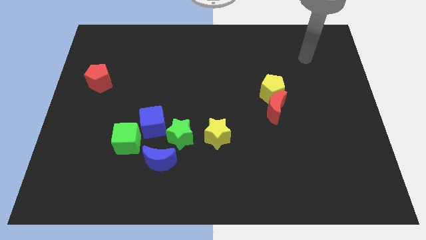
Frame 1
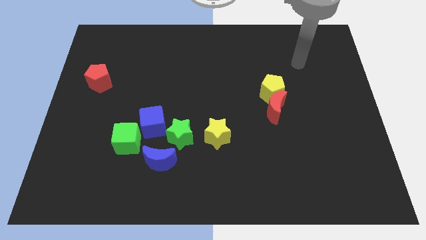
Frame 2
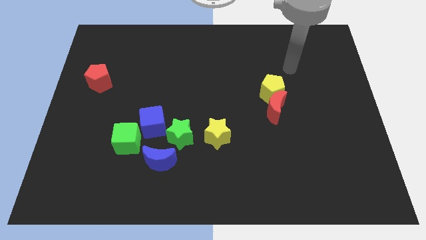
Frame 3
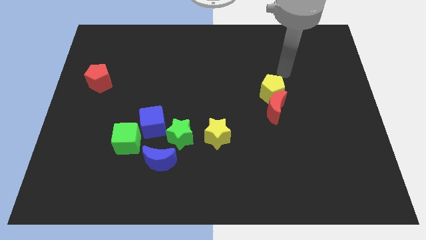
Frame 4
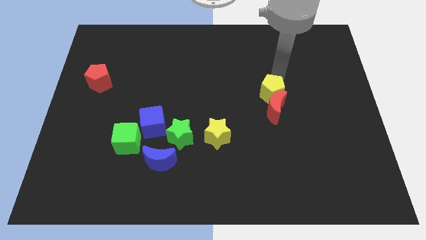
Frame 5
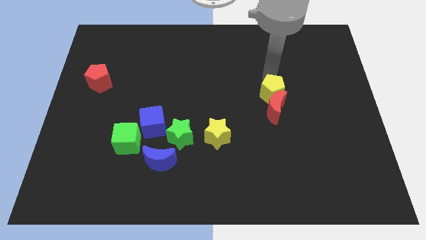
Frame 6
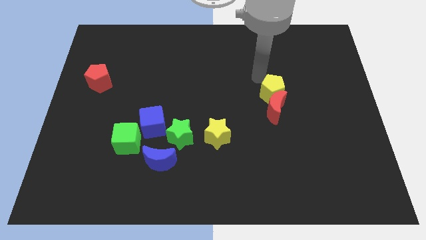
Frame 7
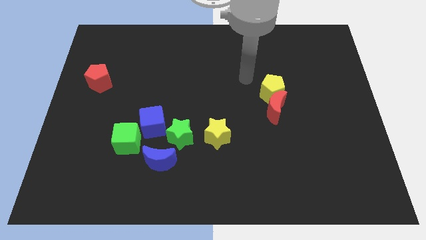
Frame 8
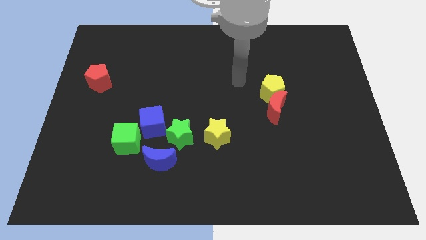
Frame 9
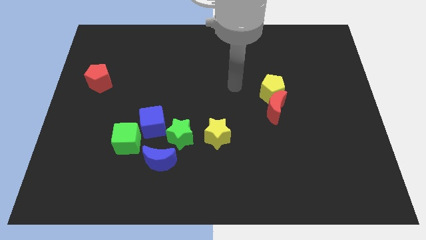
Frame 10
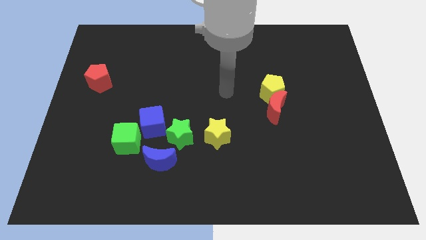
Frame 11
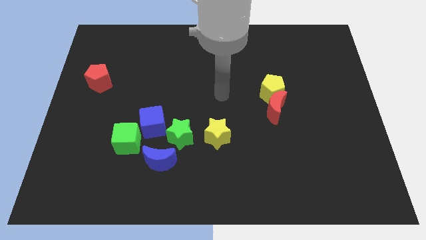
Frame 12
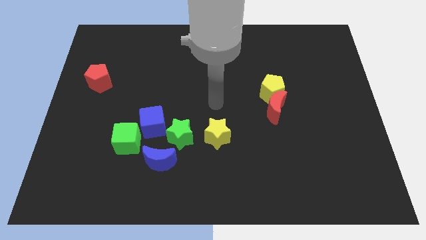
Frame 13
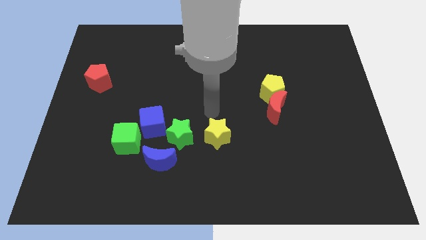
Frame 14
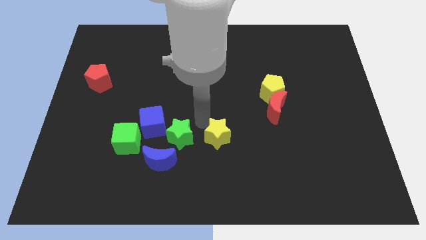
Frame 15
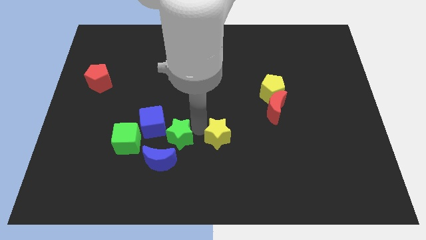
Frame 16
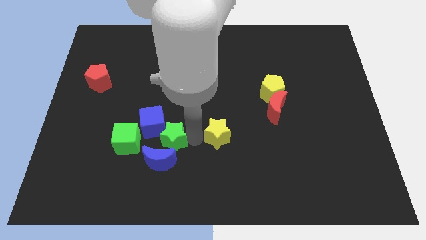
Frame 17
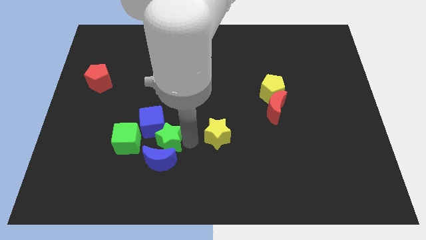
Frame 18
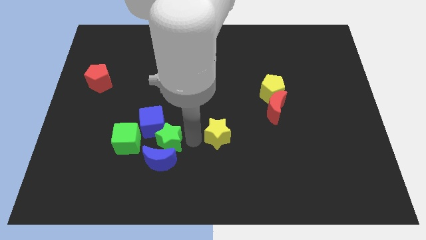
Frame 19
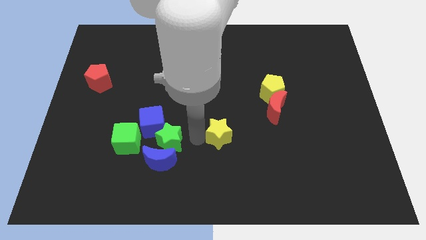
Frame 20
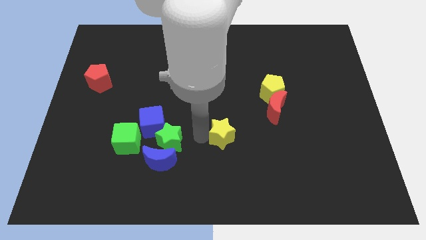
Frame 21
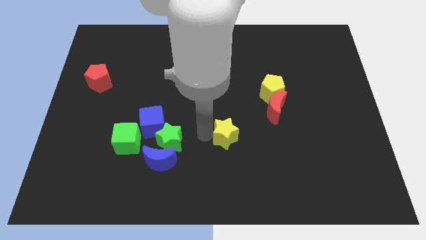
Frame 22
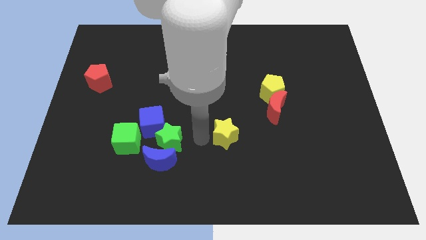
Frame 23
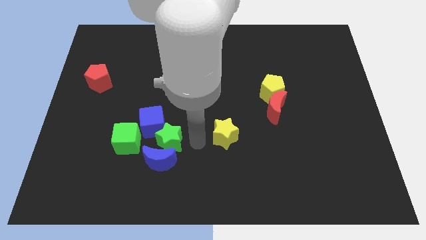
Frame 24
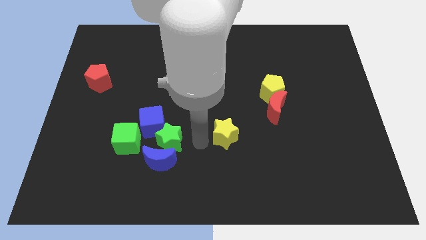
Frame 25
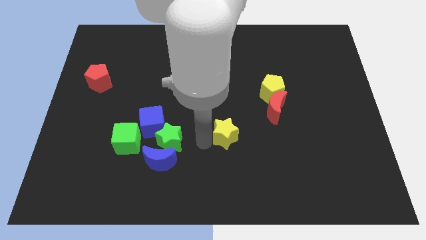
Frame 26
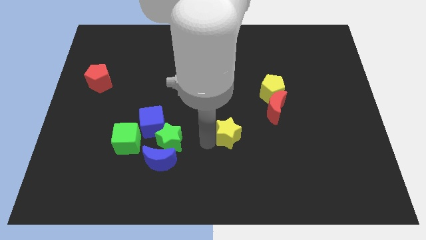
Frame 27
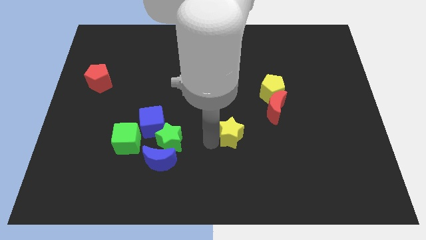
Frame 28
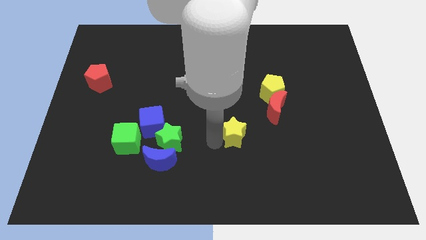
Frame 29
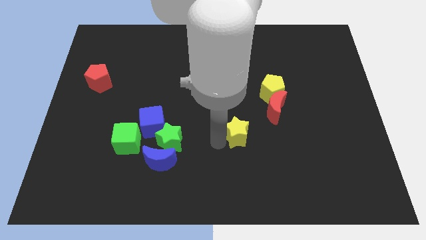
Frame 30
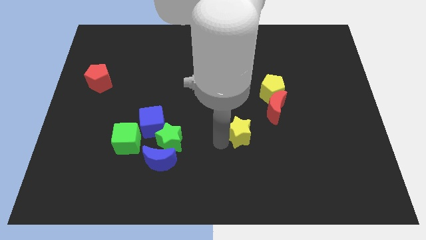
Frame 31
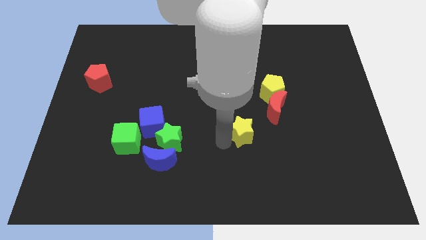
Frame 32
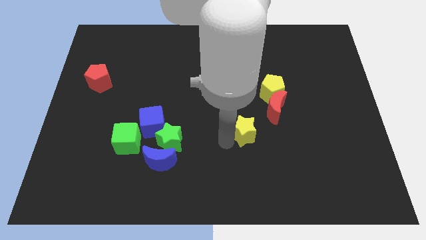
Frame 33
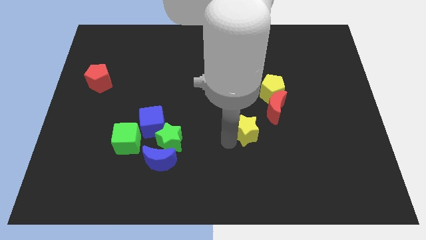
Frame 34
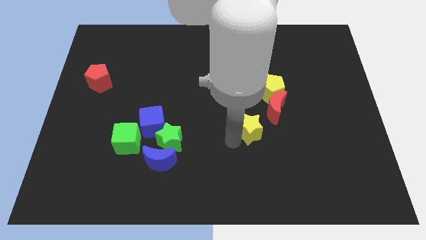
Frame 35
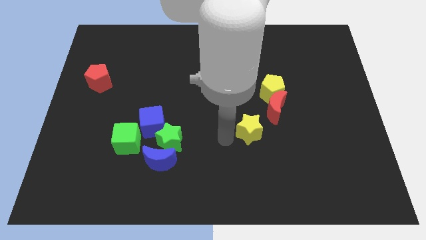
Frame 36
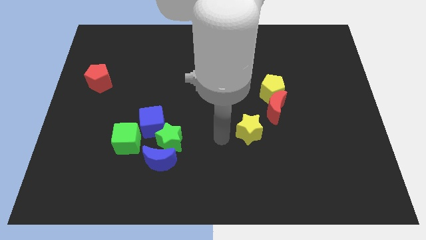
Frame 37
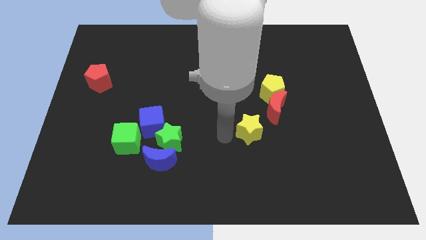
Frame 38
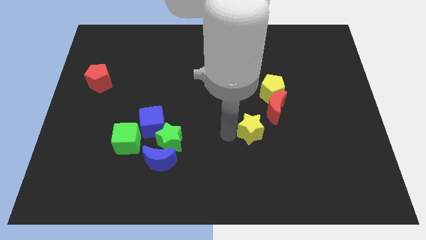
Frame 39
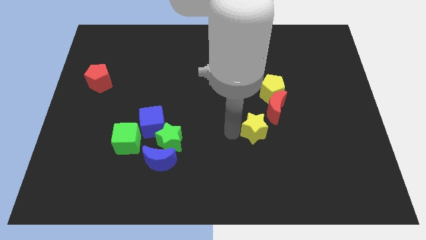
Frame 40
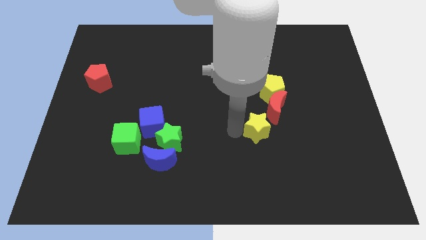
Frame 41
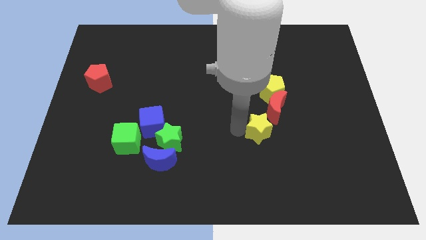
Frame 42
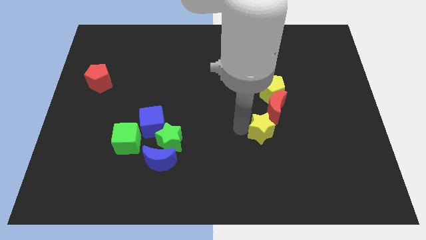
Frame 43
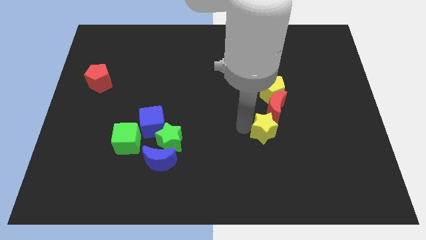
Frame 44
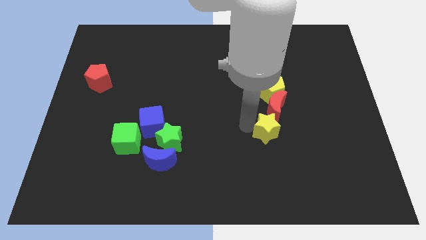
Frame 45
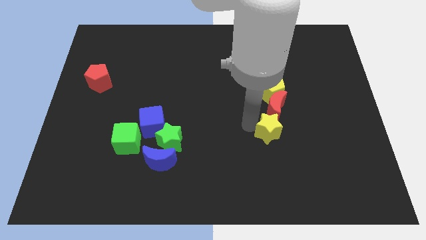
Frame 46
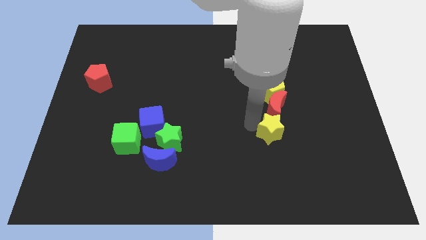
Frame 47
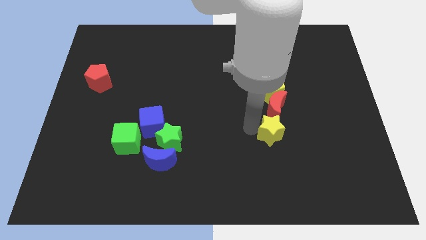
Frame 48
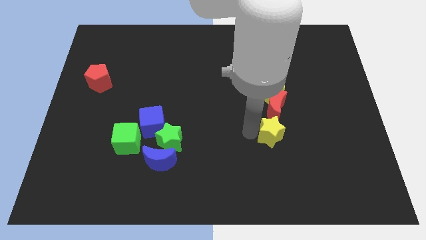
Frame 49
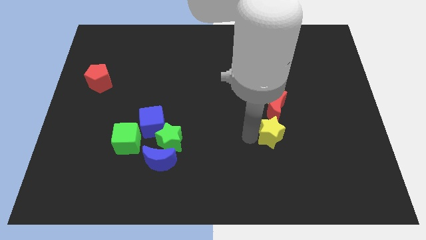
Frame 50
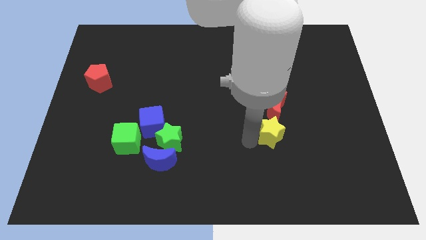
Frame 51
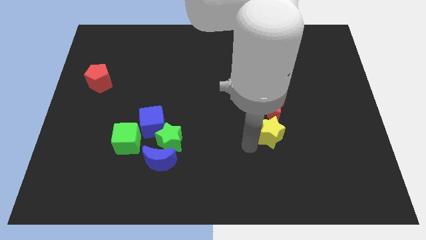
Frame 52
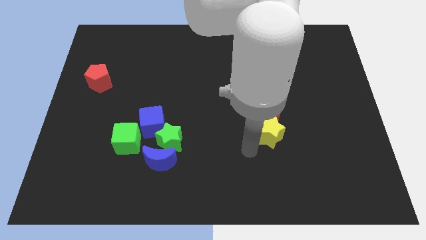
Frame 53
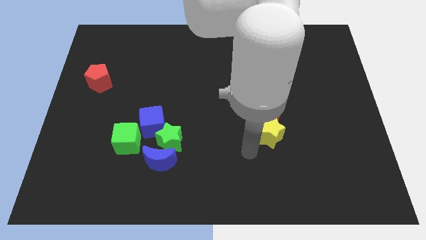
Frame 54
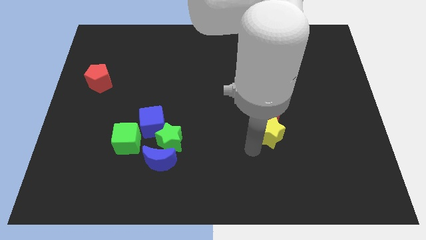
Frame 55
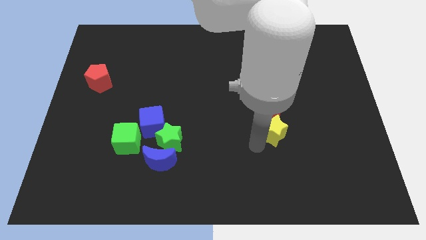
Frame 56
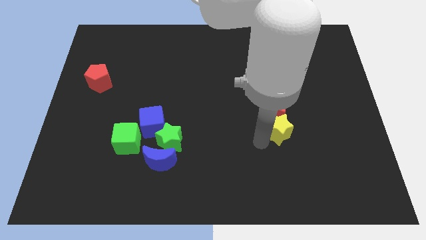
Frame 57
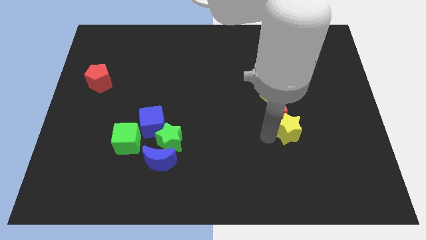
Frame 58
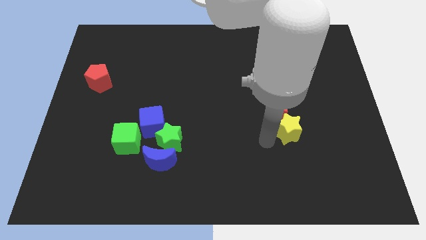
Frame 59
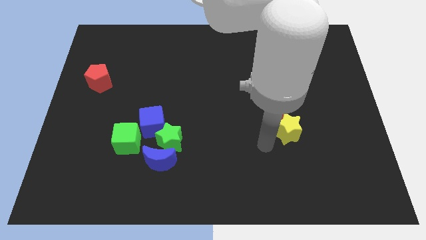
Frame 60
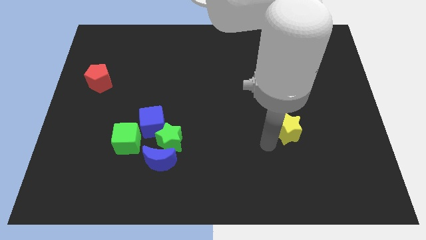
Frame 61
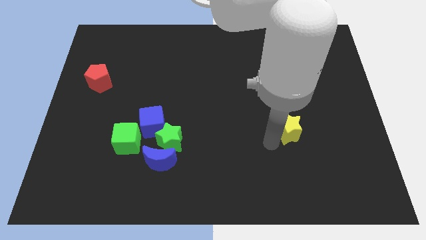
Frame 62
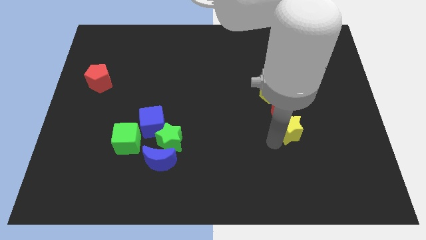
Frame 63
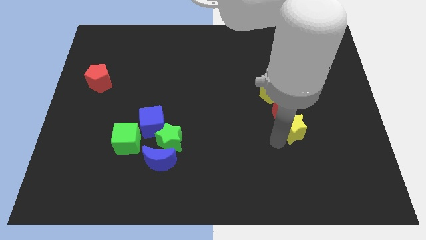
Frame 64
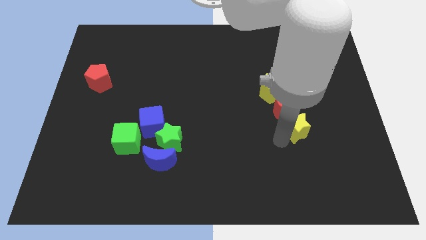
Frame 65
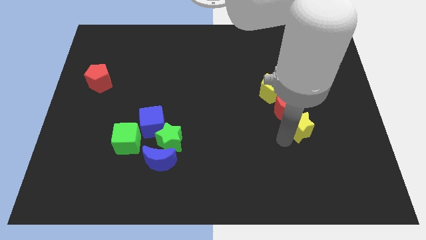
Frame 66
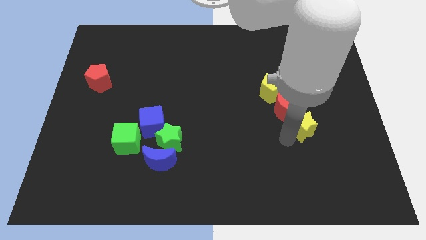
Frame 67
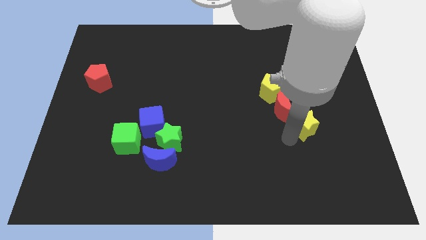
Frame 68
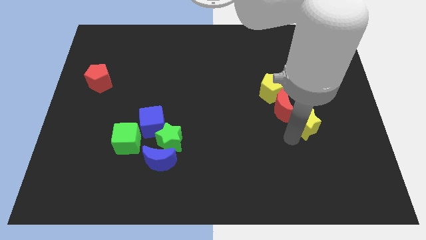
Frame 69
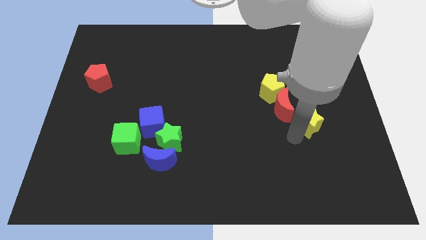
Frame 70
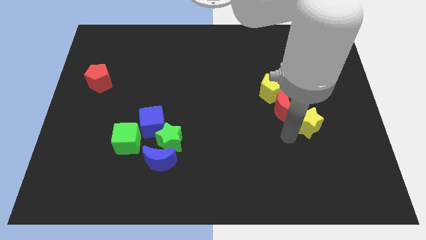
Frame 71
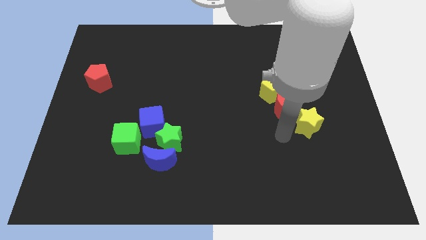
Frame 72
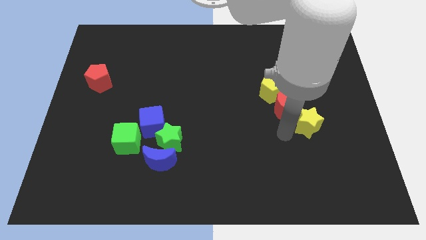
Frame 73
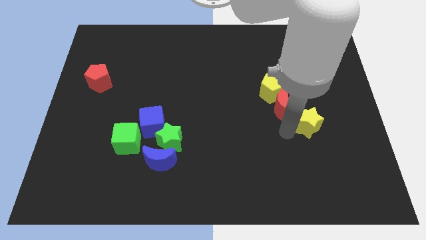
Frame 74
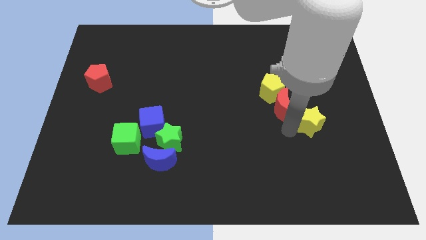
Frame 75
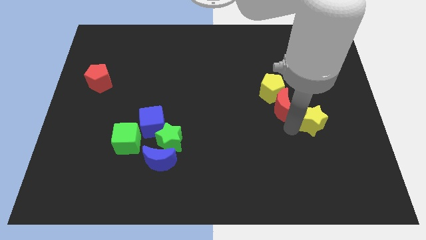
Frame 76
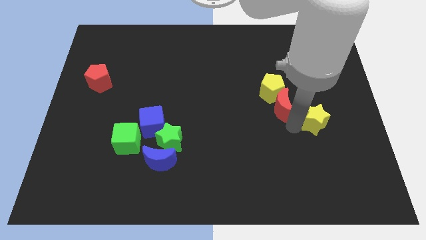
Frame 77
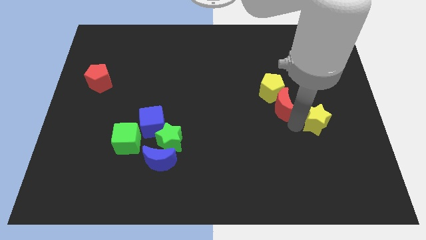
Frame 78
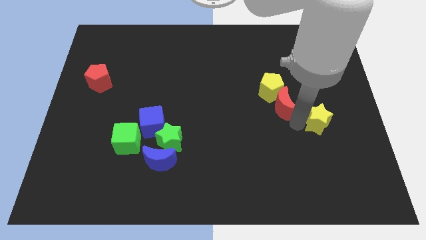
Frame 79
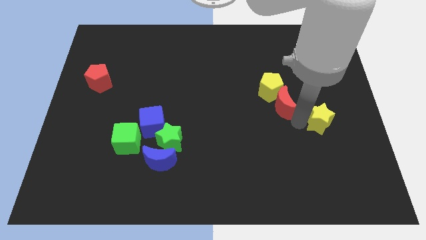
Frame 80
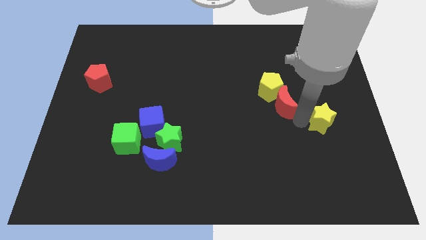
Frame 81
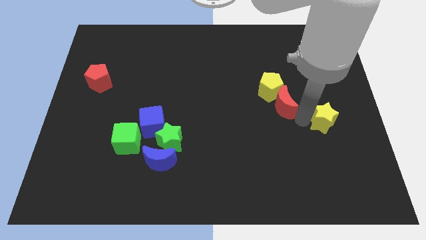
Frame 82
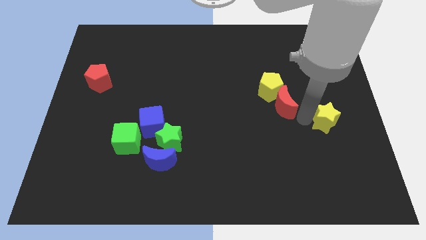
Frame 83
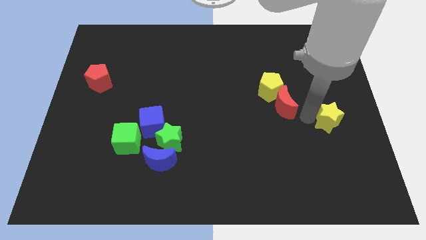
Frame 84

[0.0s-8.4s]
move the yellow star to the right side of the board
